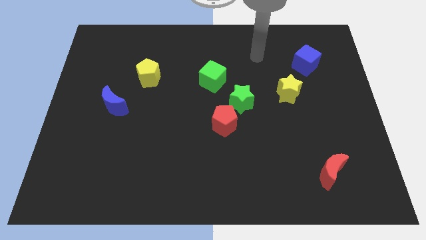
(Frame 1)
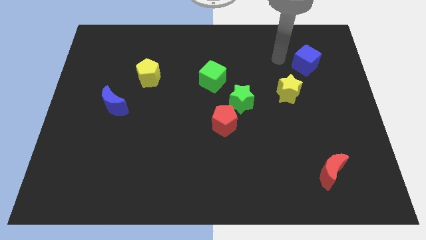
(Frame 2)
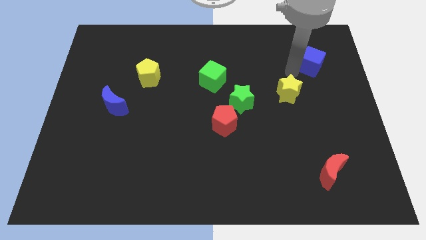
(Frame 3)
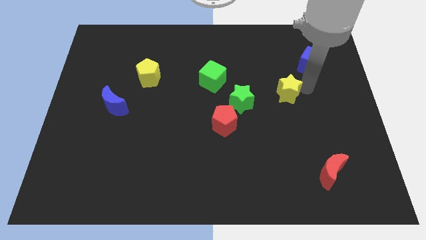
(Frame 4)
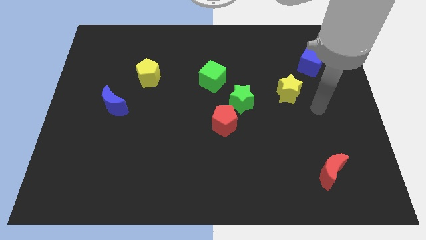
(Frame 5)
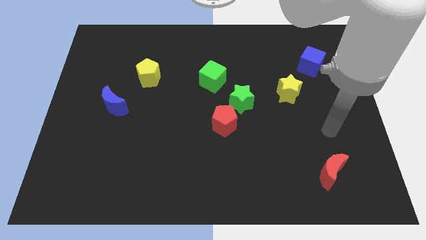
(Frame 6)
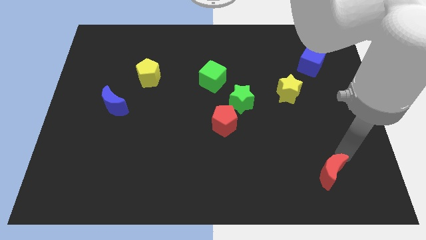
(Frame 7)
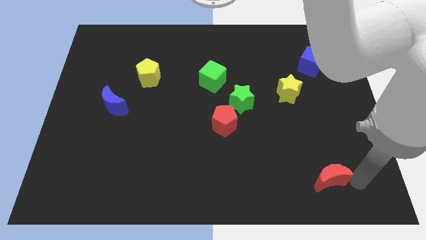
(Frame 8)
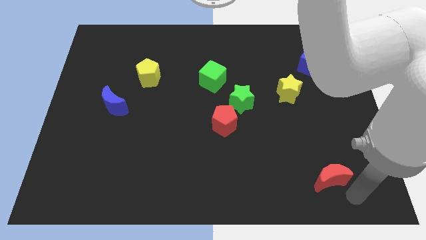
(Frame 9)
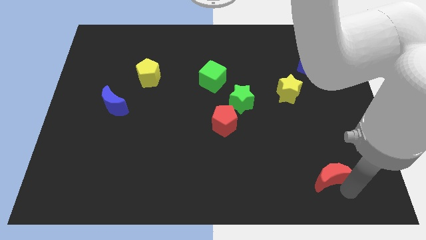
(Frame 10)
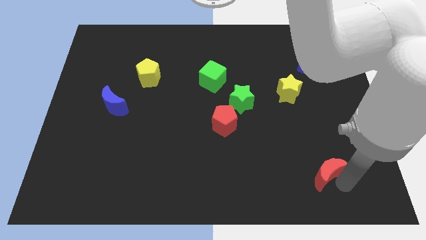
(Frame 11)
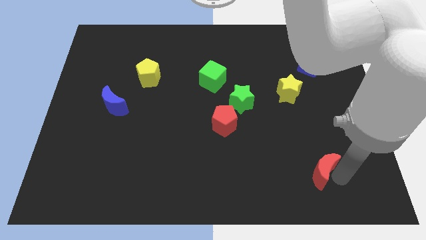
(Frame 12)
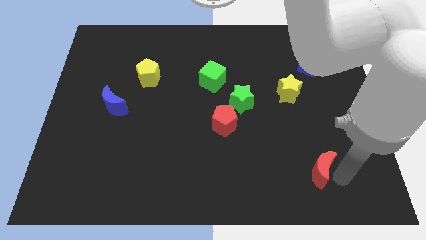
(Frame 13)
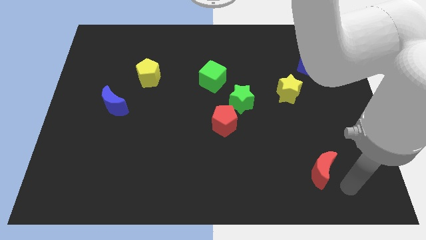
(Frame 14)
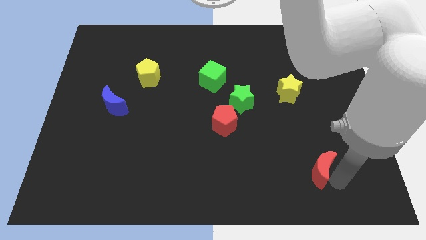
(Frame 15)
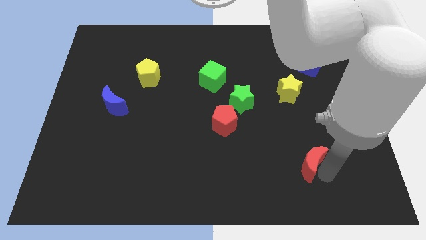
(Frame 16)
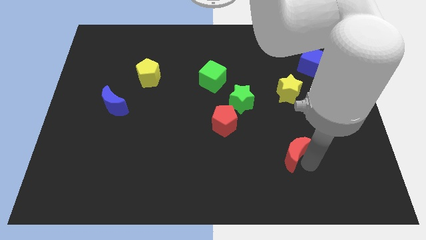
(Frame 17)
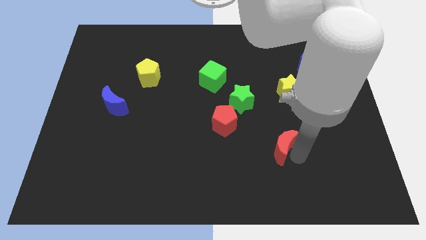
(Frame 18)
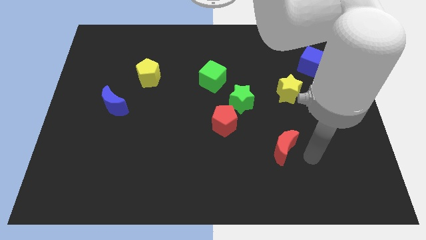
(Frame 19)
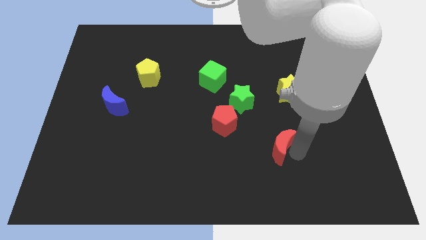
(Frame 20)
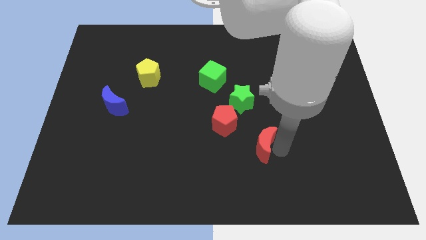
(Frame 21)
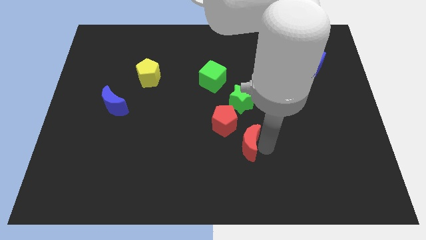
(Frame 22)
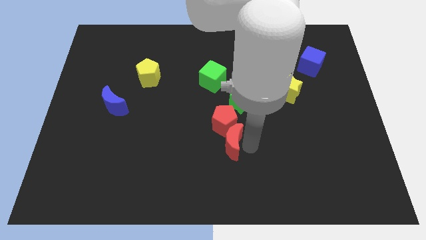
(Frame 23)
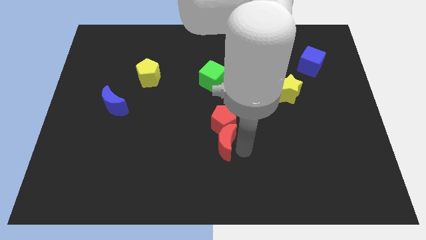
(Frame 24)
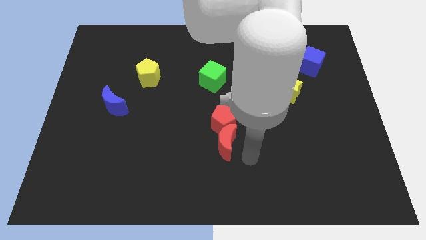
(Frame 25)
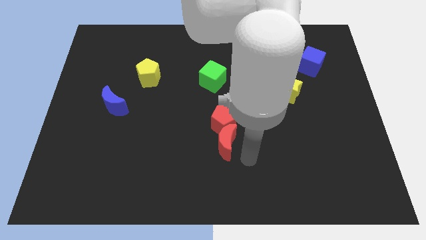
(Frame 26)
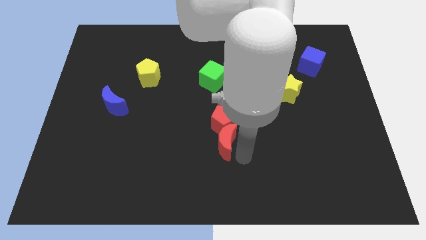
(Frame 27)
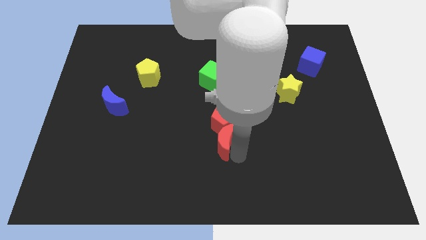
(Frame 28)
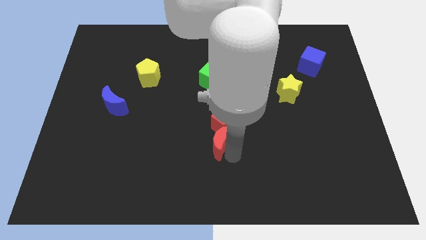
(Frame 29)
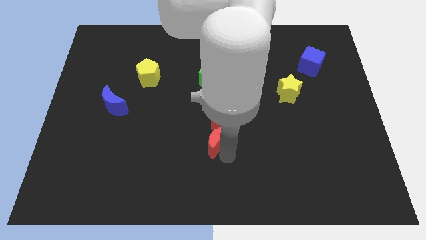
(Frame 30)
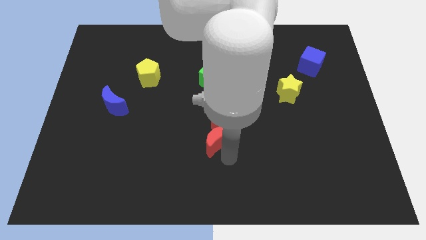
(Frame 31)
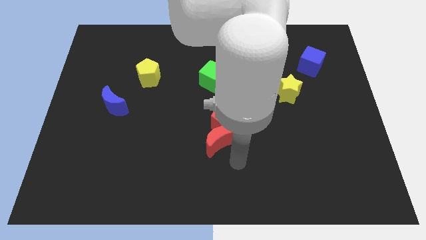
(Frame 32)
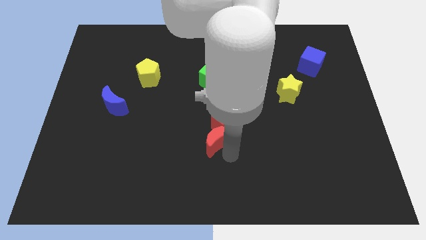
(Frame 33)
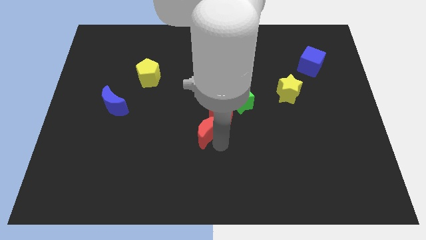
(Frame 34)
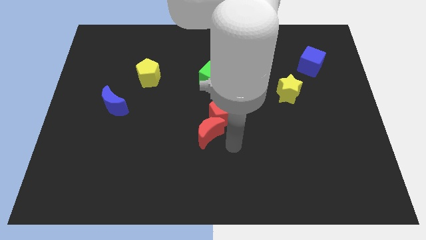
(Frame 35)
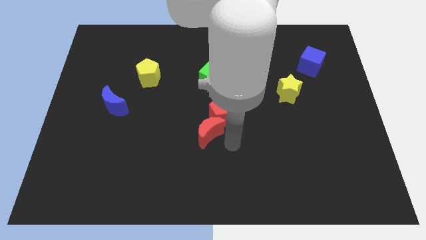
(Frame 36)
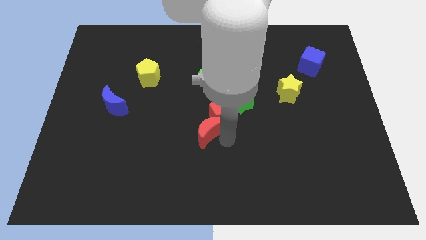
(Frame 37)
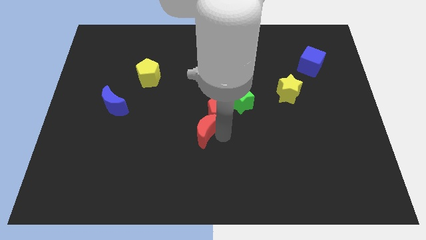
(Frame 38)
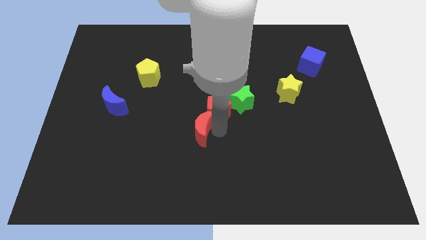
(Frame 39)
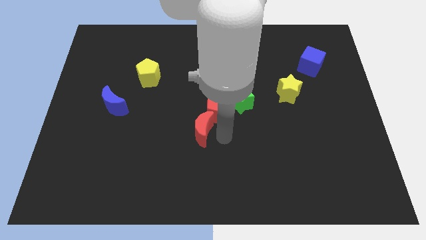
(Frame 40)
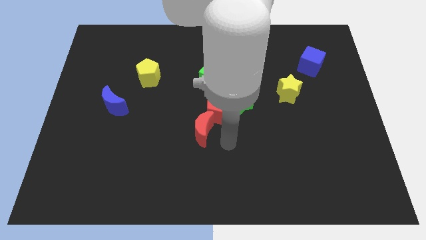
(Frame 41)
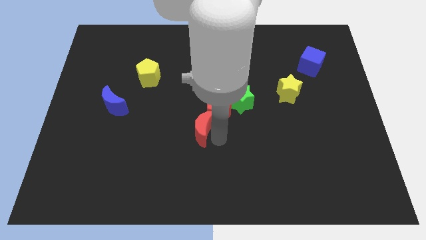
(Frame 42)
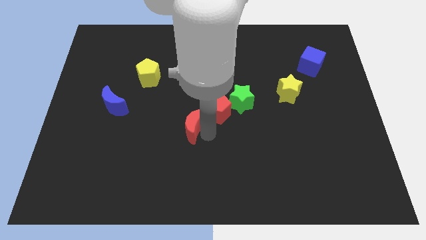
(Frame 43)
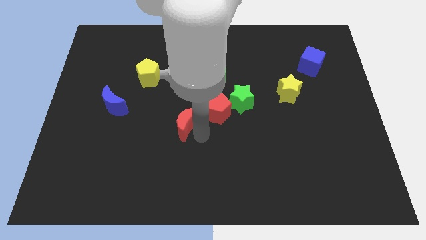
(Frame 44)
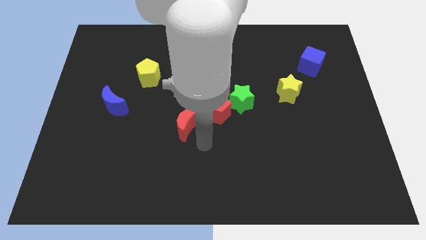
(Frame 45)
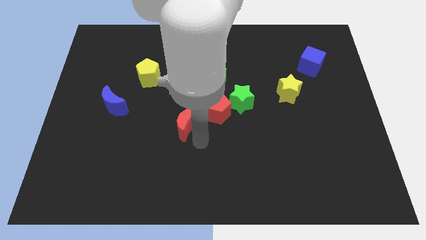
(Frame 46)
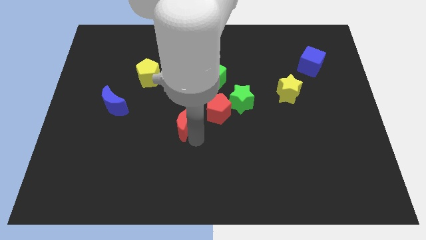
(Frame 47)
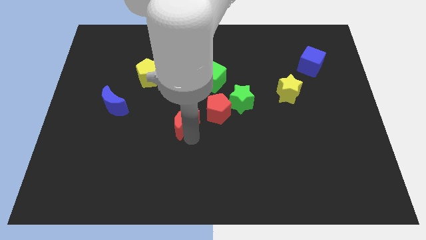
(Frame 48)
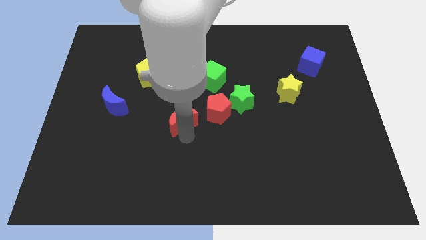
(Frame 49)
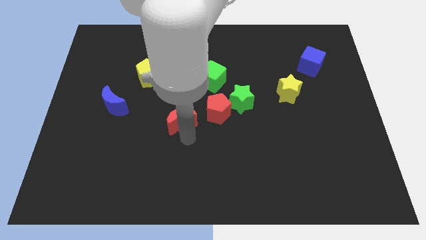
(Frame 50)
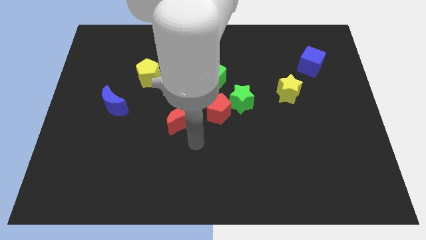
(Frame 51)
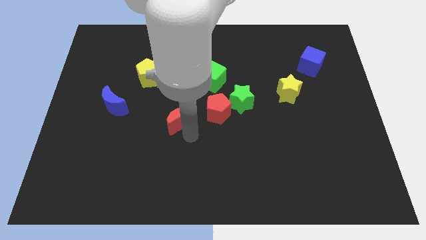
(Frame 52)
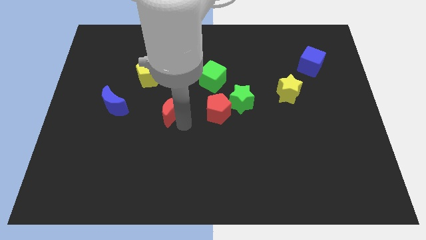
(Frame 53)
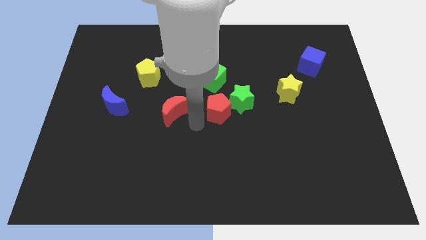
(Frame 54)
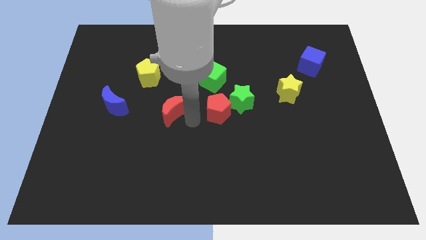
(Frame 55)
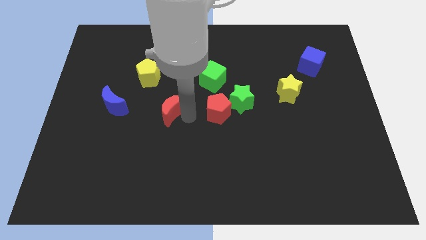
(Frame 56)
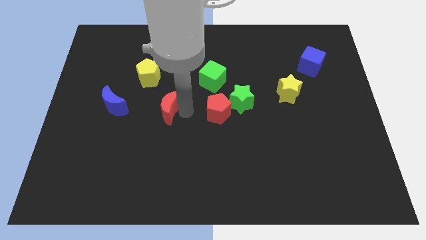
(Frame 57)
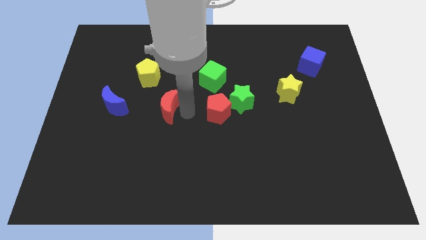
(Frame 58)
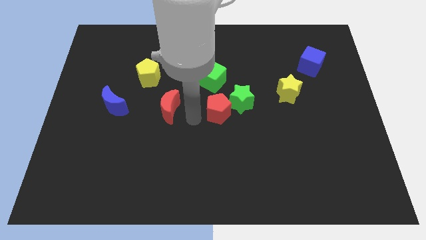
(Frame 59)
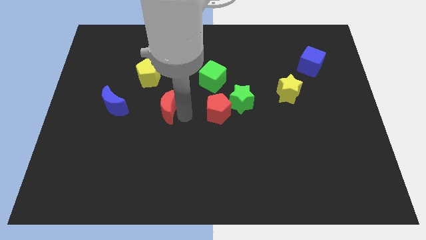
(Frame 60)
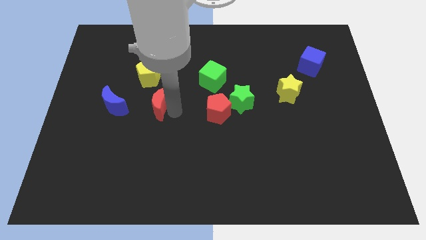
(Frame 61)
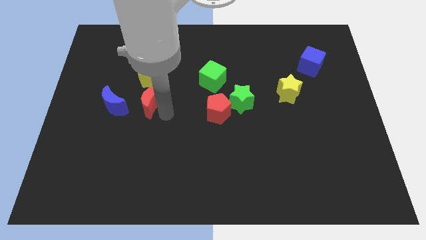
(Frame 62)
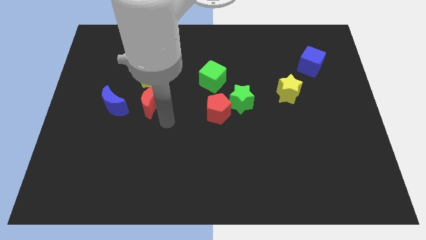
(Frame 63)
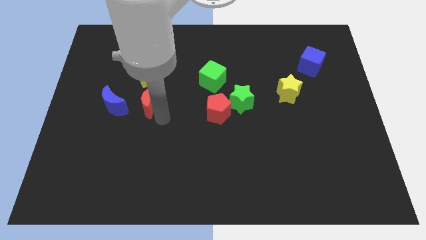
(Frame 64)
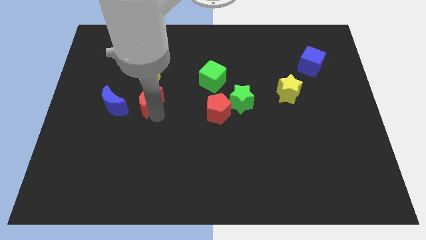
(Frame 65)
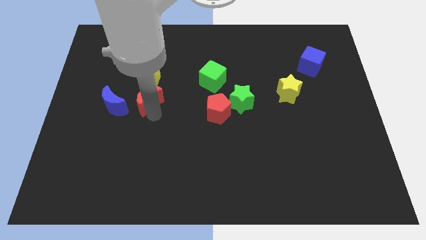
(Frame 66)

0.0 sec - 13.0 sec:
put the red moon to the top right of the blue moon

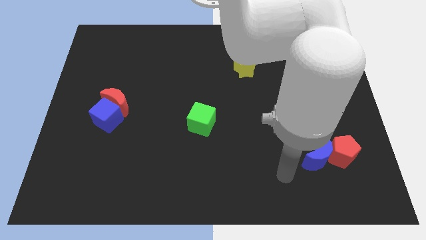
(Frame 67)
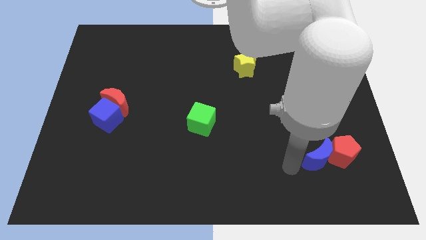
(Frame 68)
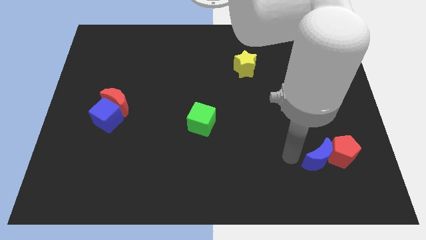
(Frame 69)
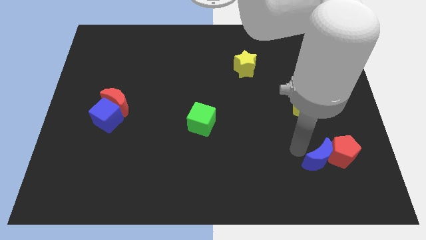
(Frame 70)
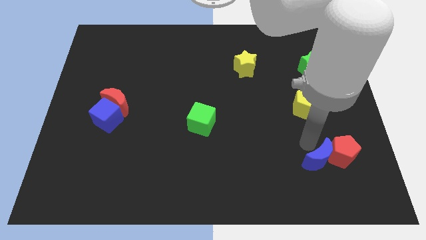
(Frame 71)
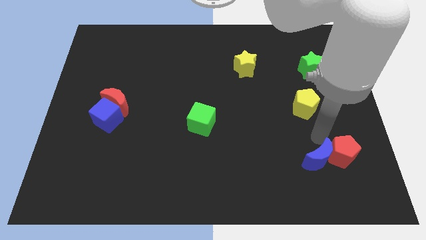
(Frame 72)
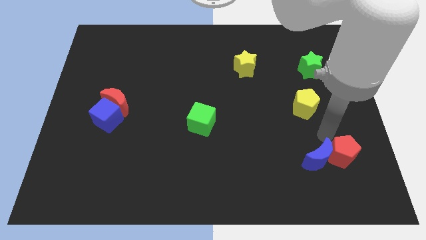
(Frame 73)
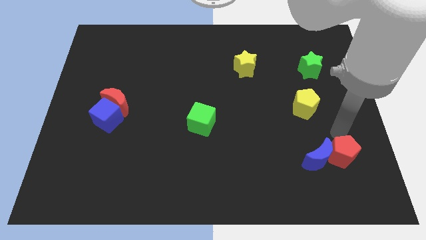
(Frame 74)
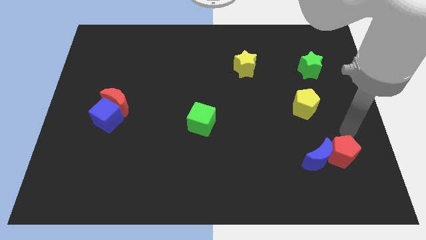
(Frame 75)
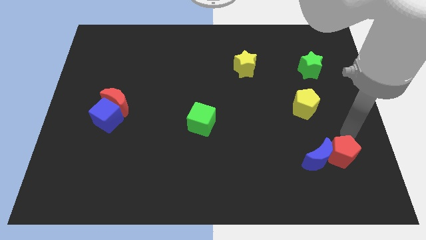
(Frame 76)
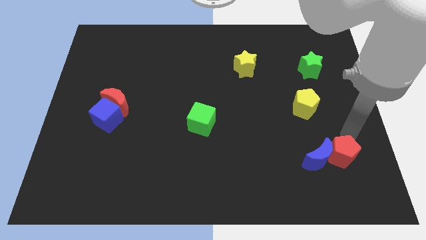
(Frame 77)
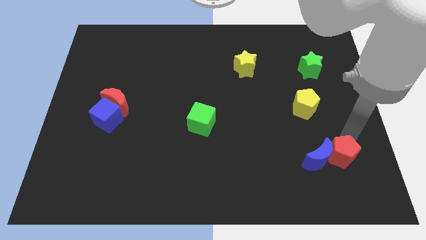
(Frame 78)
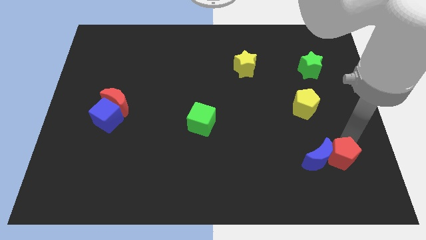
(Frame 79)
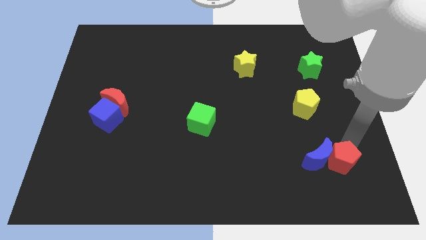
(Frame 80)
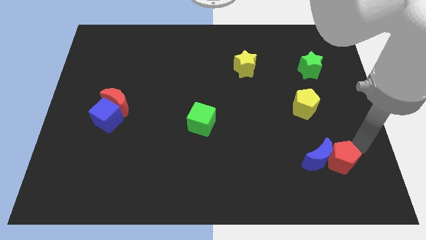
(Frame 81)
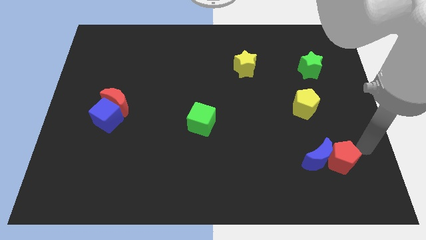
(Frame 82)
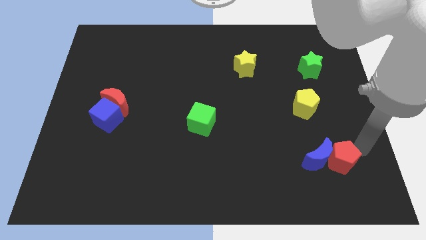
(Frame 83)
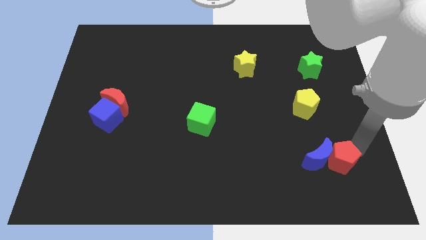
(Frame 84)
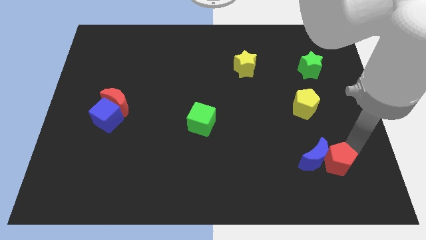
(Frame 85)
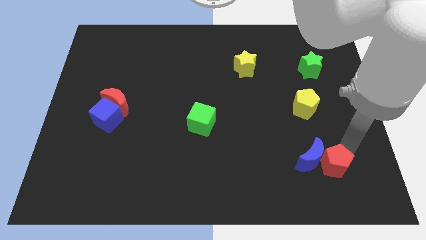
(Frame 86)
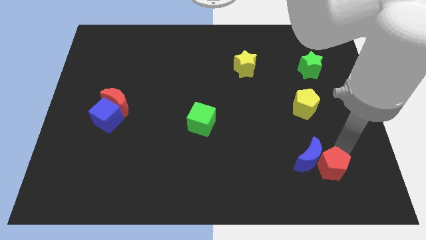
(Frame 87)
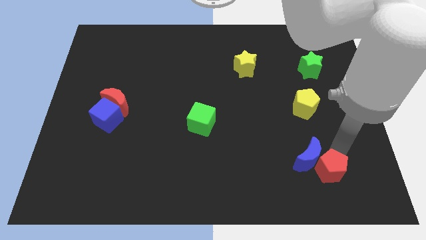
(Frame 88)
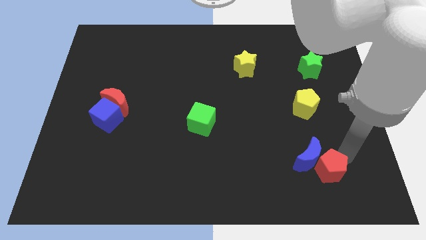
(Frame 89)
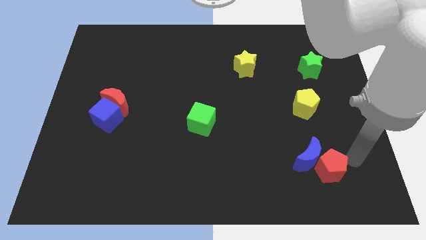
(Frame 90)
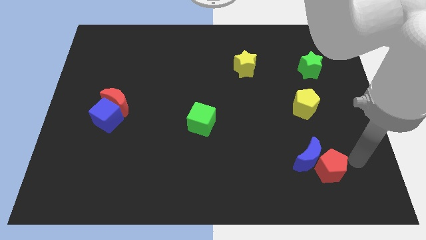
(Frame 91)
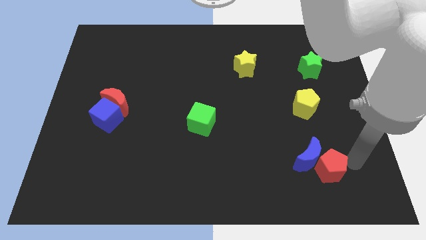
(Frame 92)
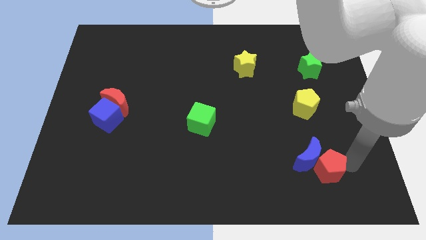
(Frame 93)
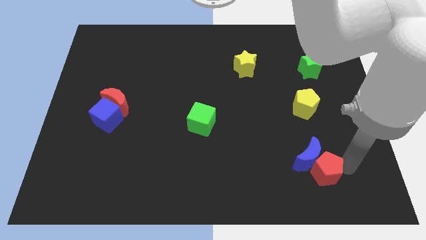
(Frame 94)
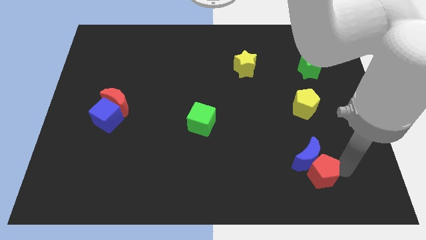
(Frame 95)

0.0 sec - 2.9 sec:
slide the red pentagon to the bottom left side of the blue moon
